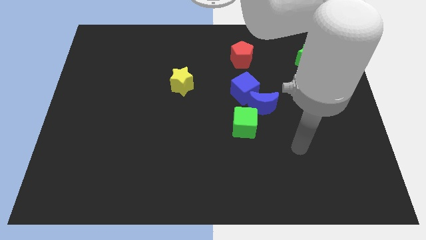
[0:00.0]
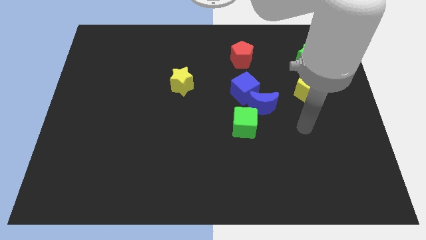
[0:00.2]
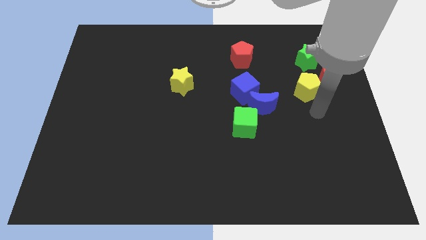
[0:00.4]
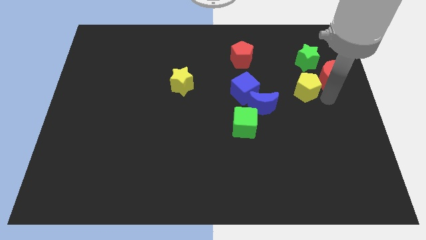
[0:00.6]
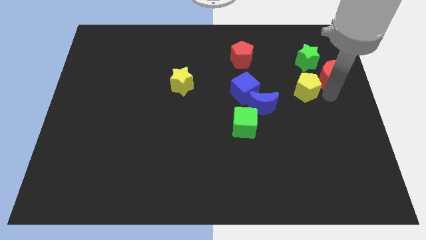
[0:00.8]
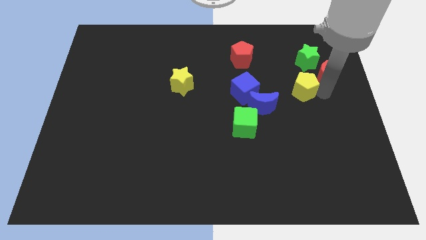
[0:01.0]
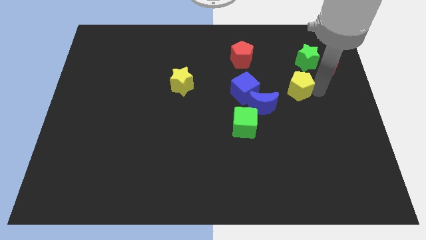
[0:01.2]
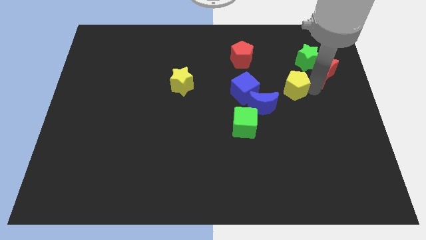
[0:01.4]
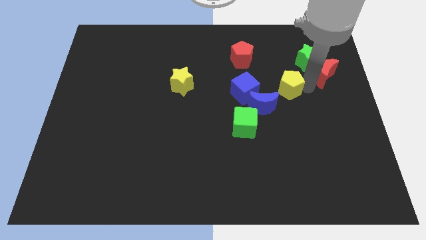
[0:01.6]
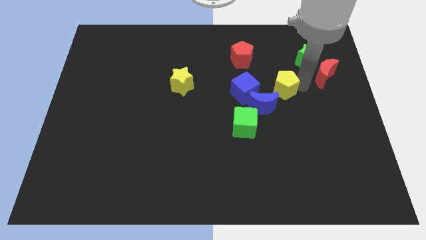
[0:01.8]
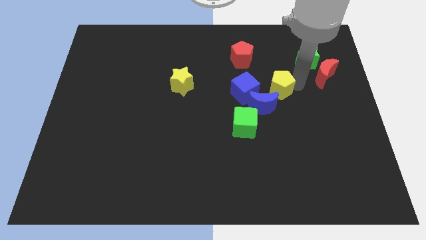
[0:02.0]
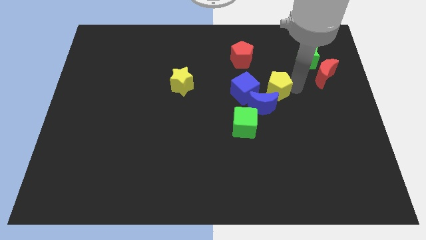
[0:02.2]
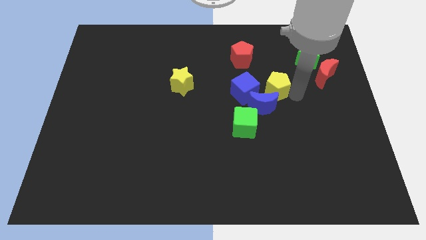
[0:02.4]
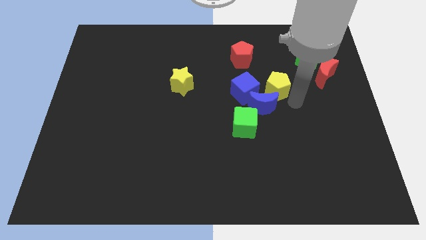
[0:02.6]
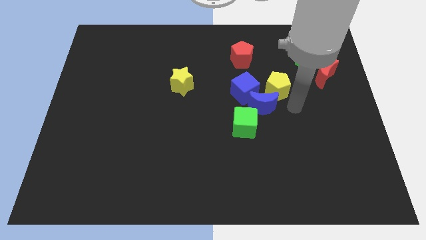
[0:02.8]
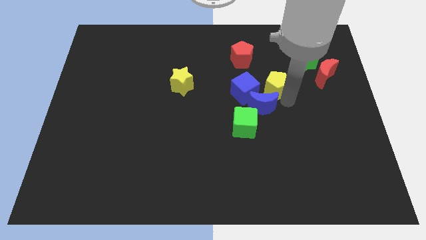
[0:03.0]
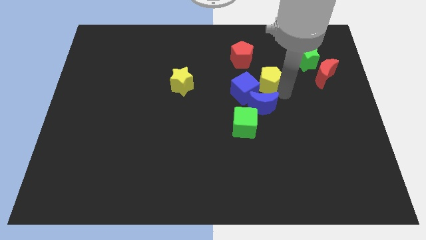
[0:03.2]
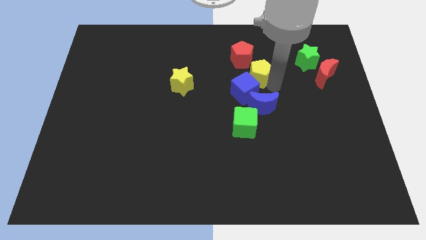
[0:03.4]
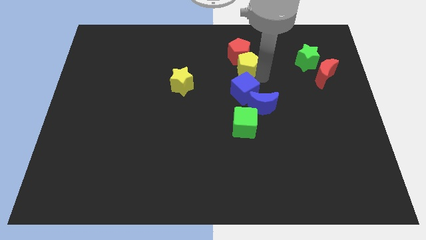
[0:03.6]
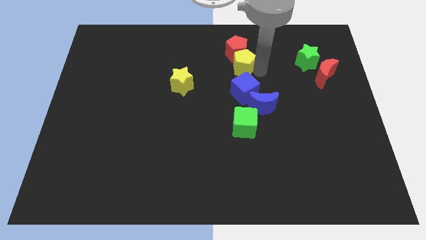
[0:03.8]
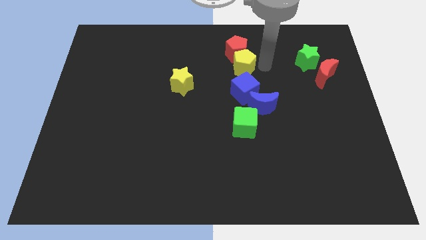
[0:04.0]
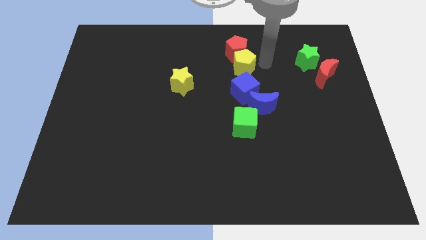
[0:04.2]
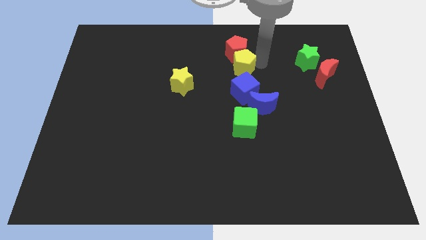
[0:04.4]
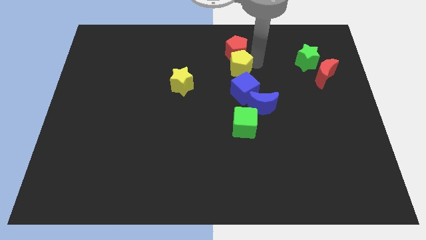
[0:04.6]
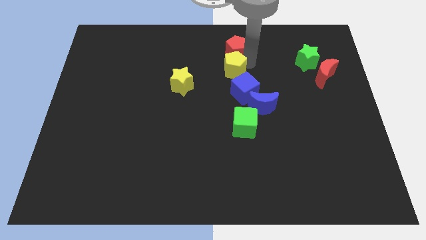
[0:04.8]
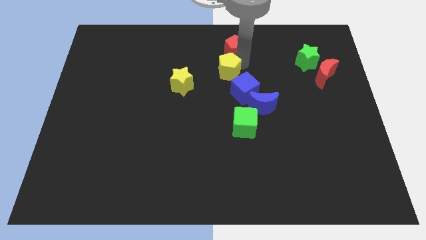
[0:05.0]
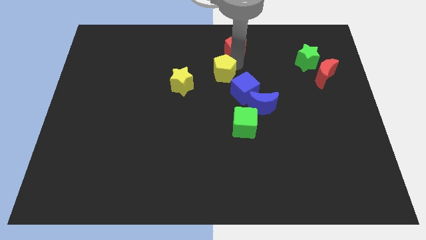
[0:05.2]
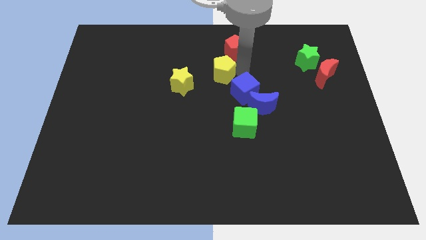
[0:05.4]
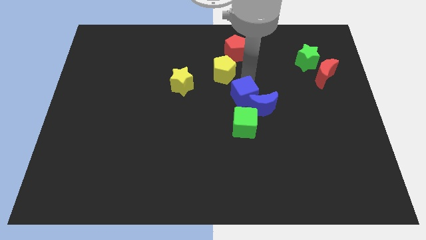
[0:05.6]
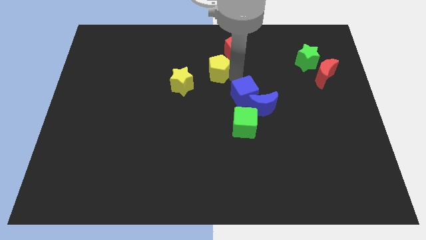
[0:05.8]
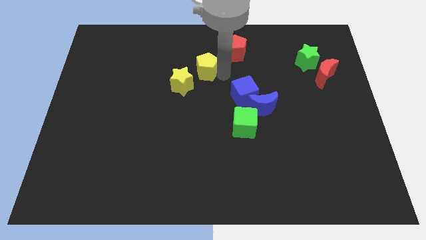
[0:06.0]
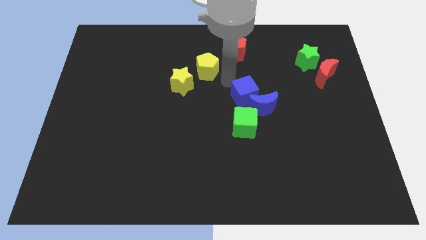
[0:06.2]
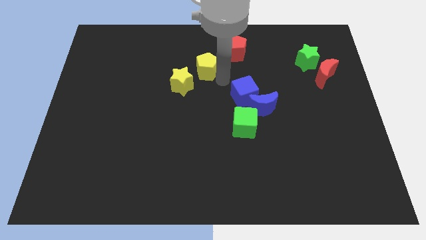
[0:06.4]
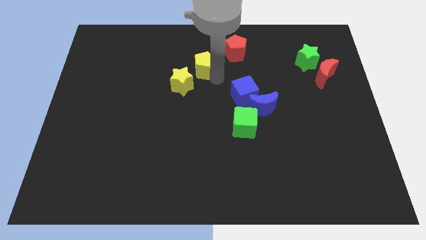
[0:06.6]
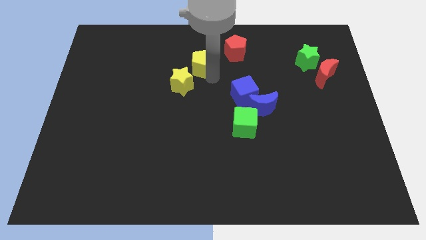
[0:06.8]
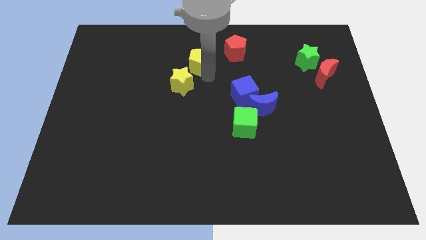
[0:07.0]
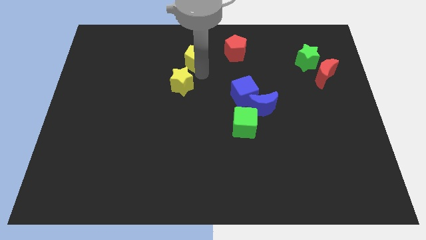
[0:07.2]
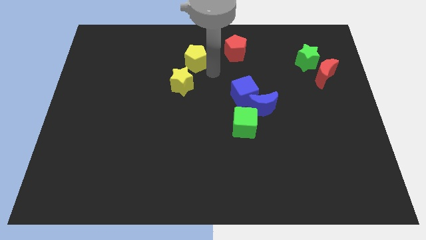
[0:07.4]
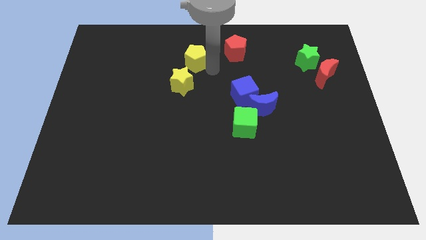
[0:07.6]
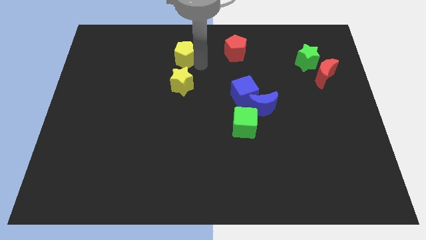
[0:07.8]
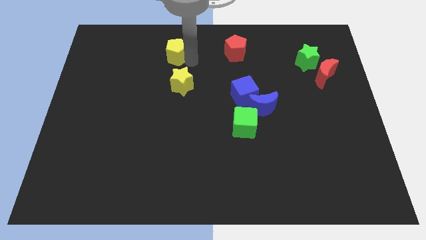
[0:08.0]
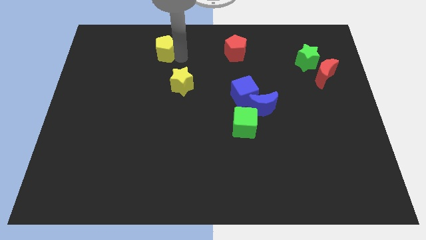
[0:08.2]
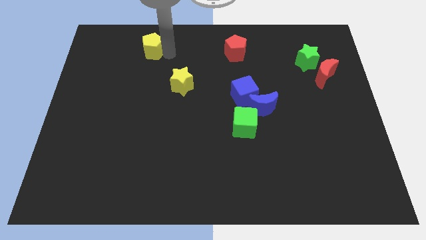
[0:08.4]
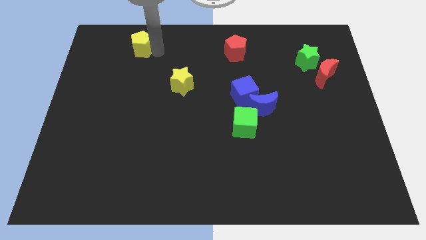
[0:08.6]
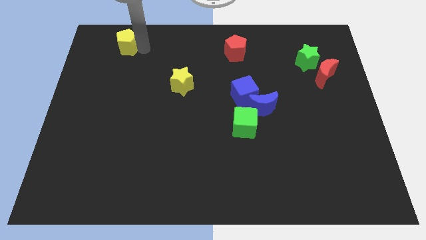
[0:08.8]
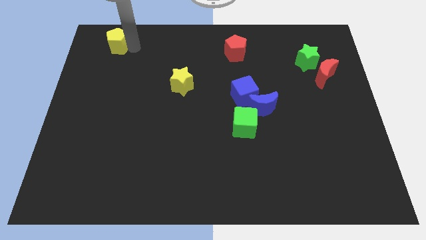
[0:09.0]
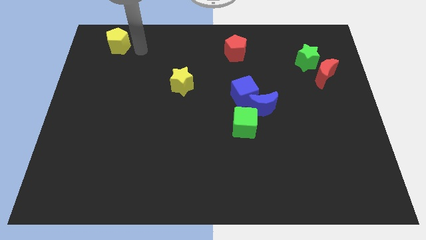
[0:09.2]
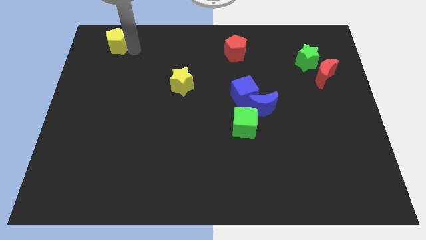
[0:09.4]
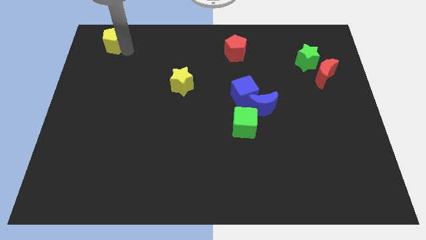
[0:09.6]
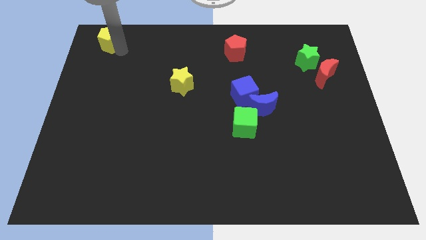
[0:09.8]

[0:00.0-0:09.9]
slide the yellow pentagon to the top left corner

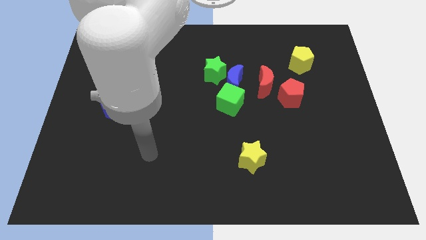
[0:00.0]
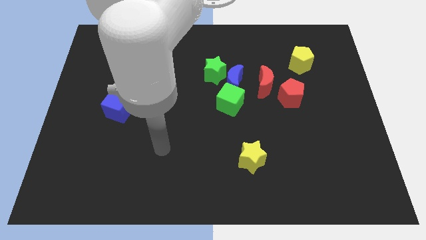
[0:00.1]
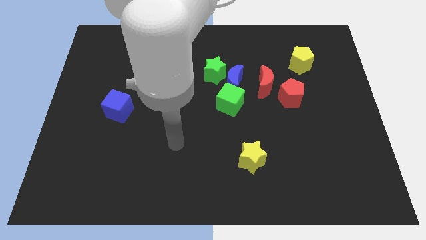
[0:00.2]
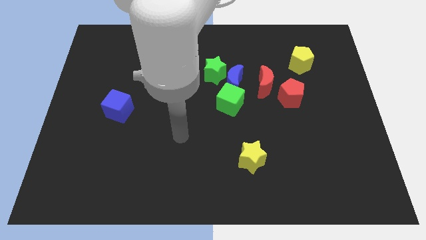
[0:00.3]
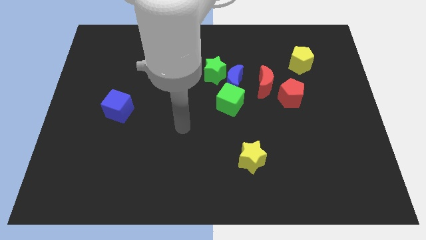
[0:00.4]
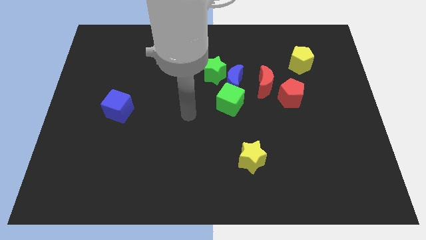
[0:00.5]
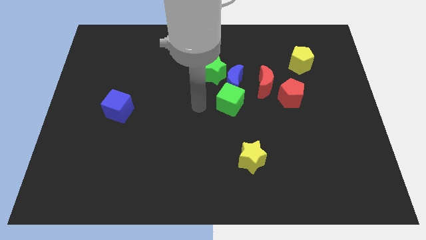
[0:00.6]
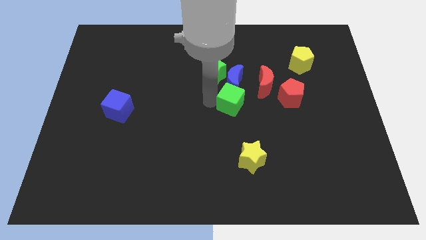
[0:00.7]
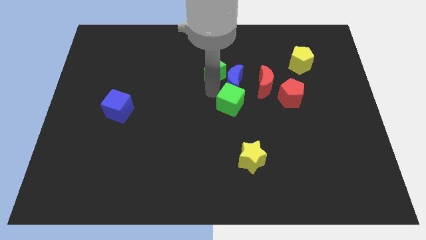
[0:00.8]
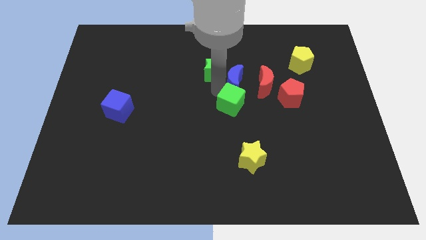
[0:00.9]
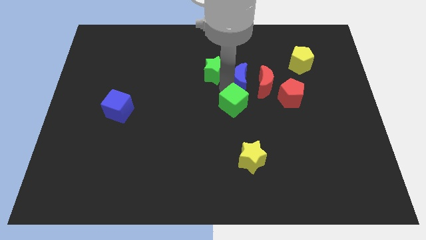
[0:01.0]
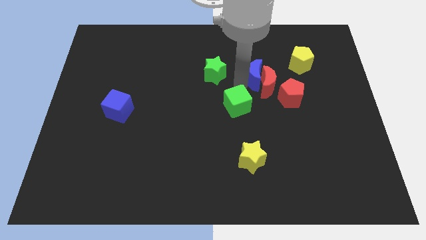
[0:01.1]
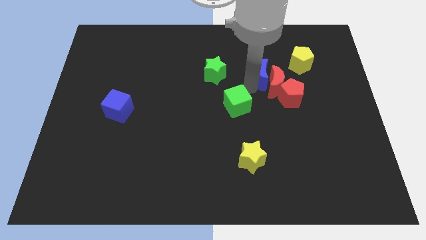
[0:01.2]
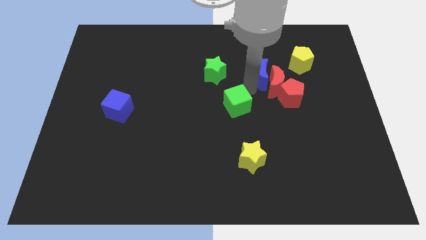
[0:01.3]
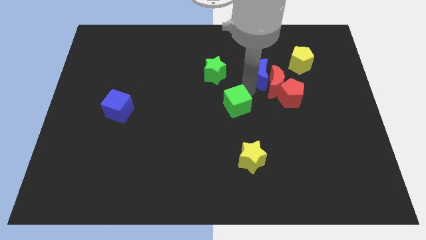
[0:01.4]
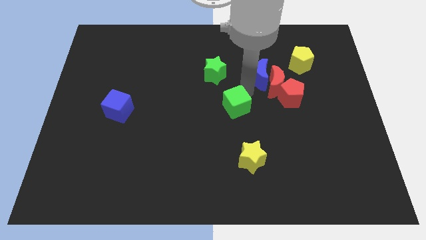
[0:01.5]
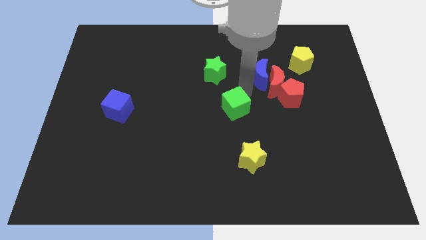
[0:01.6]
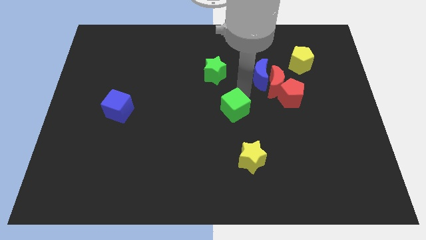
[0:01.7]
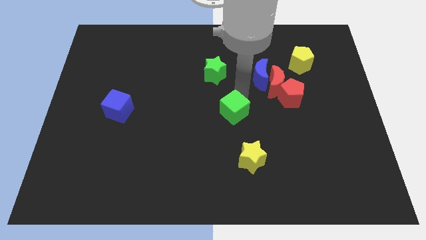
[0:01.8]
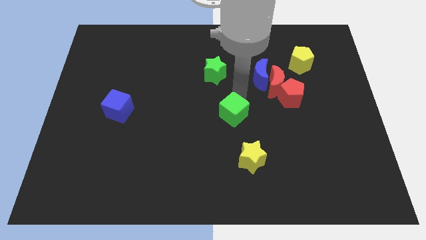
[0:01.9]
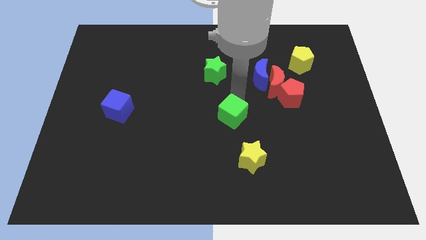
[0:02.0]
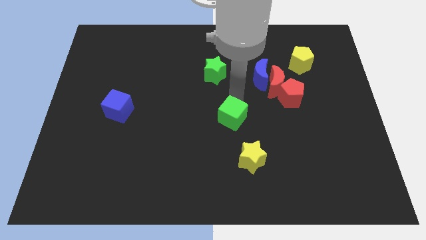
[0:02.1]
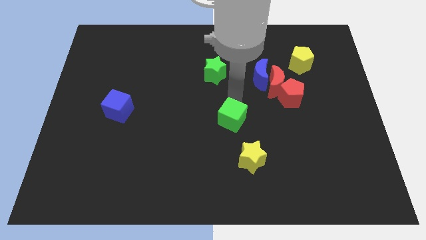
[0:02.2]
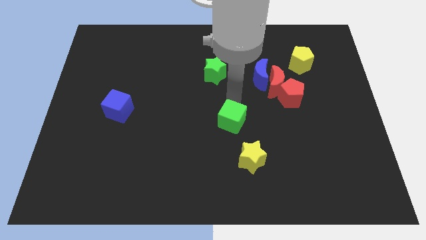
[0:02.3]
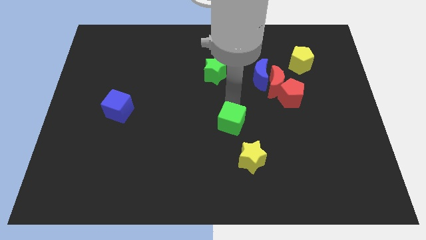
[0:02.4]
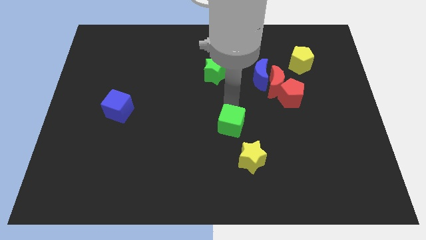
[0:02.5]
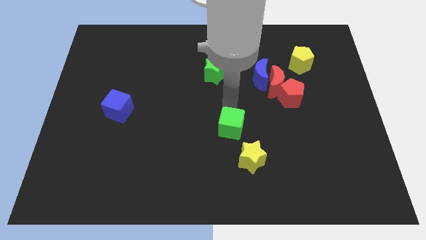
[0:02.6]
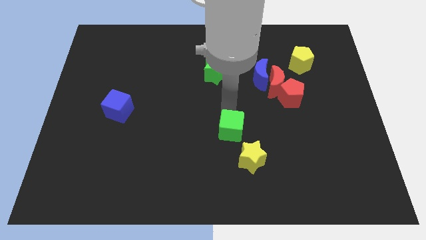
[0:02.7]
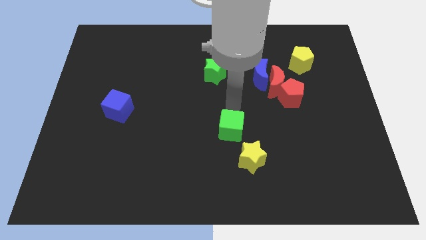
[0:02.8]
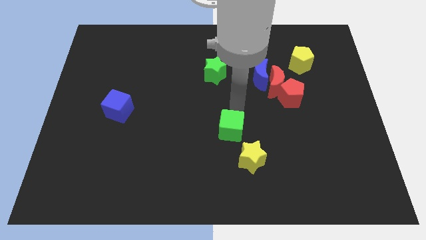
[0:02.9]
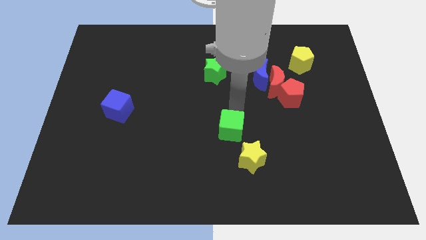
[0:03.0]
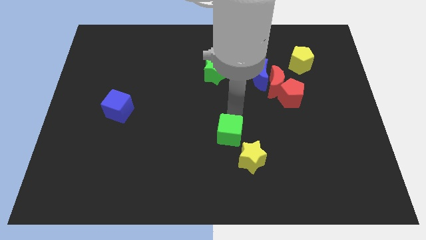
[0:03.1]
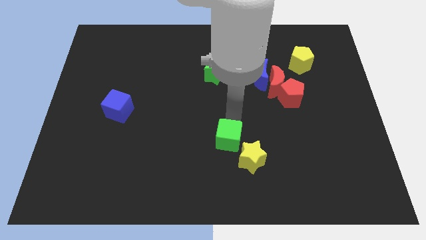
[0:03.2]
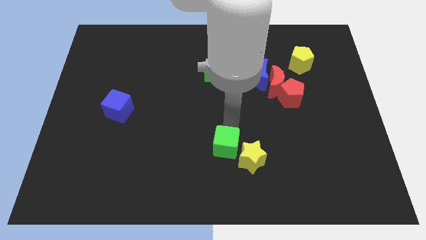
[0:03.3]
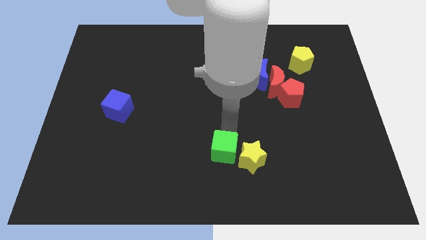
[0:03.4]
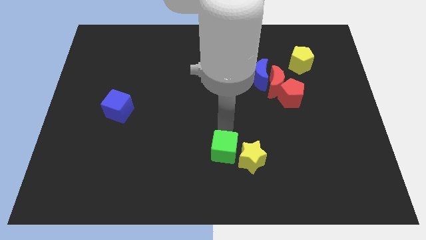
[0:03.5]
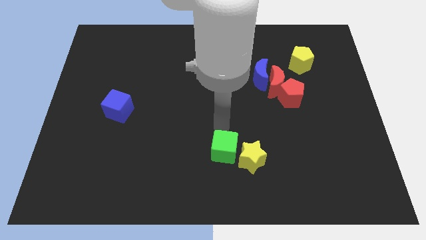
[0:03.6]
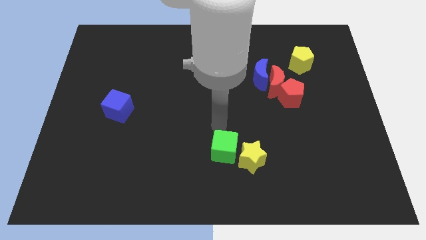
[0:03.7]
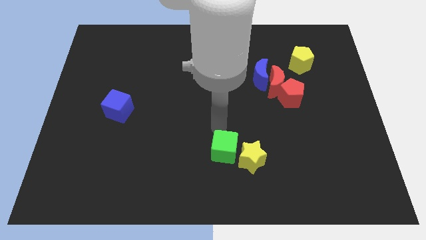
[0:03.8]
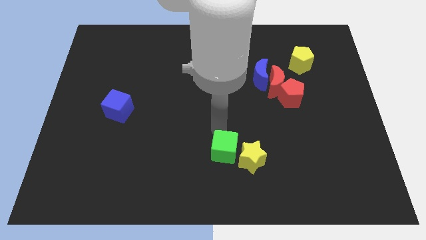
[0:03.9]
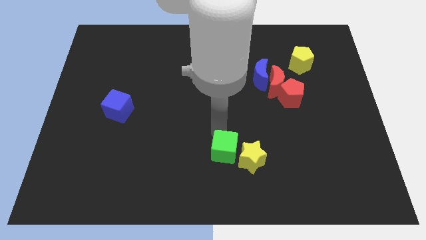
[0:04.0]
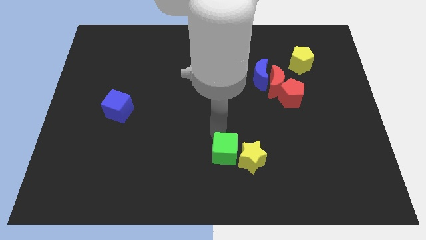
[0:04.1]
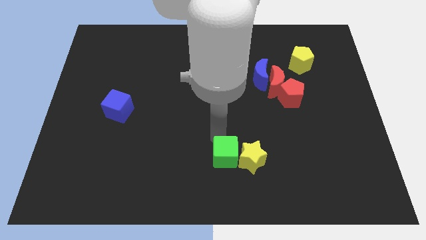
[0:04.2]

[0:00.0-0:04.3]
push the green cube to the bottom side
